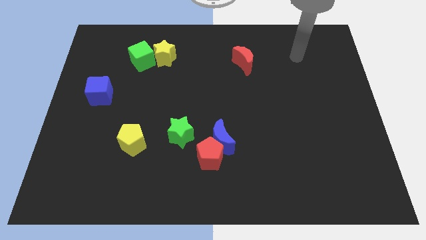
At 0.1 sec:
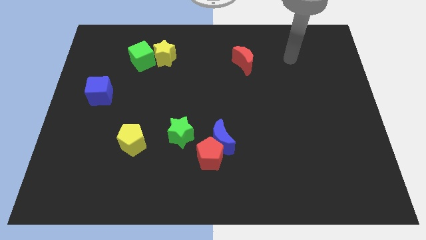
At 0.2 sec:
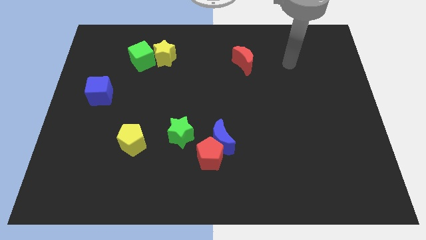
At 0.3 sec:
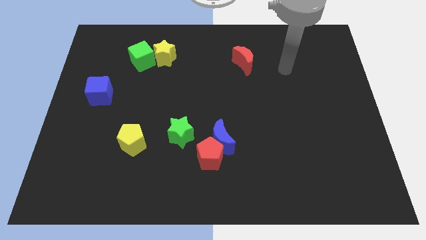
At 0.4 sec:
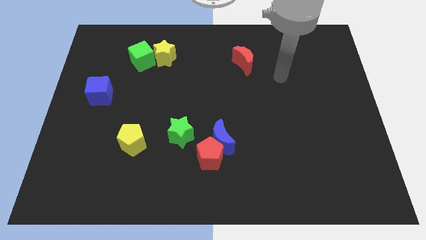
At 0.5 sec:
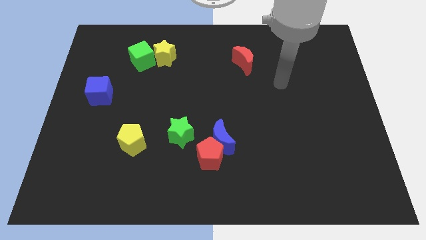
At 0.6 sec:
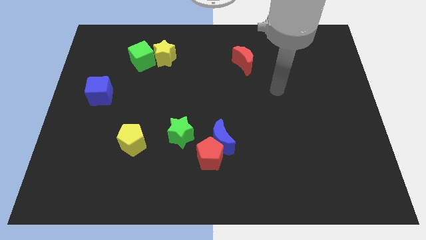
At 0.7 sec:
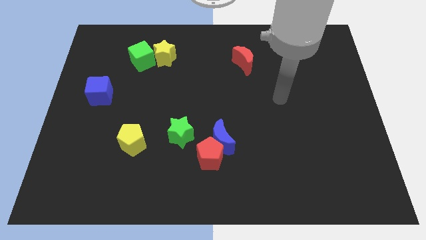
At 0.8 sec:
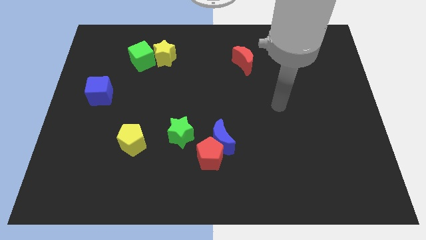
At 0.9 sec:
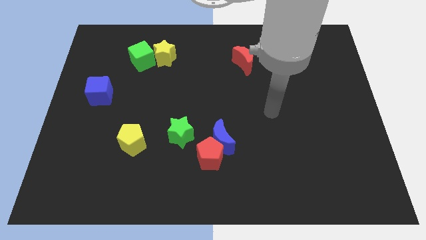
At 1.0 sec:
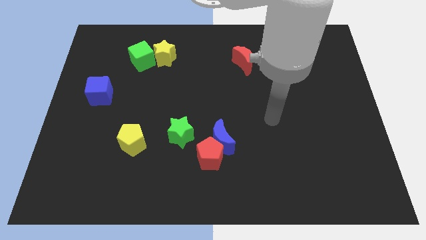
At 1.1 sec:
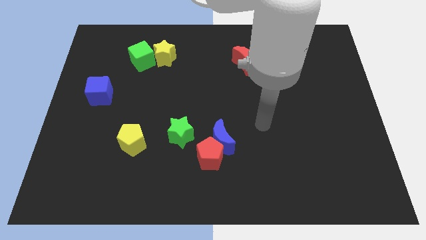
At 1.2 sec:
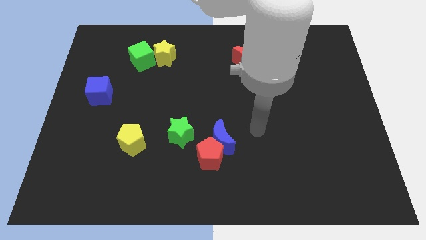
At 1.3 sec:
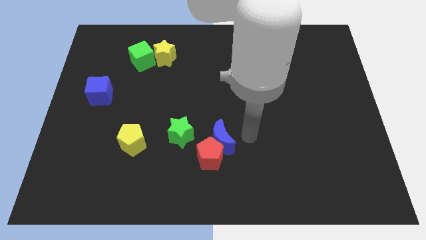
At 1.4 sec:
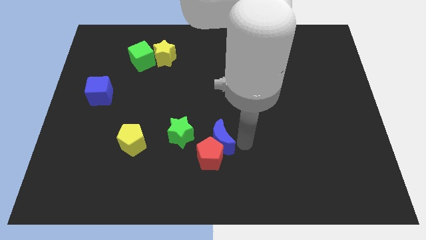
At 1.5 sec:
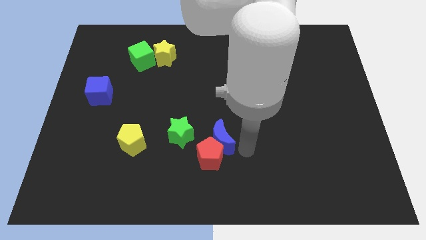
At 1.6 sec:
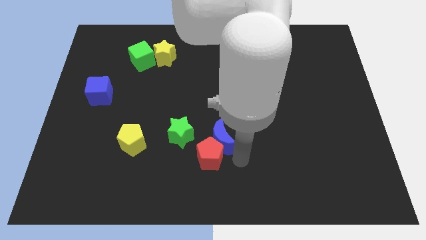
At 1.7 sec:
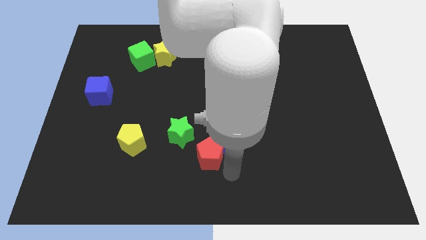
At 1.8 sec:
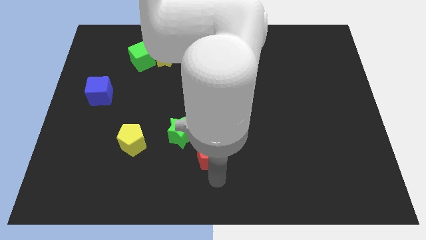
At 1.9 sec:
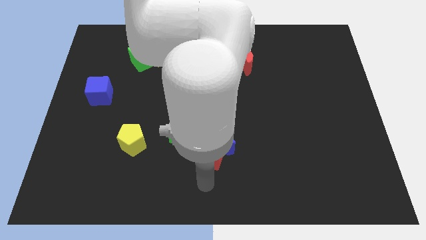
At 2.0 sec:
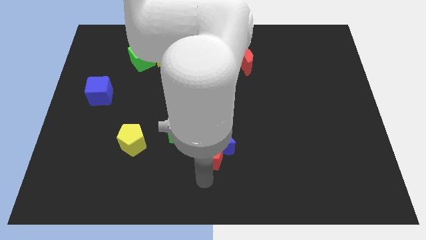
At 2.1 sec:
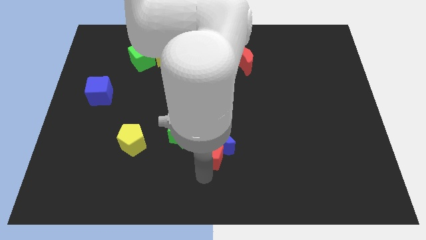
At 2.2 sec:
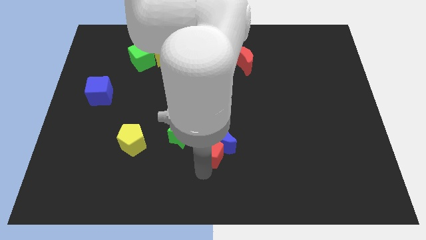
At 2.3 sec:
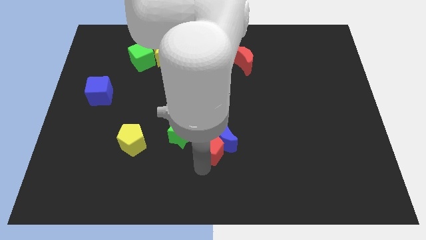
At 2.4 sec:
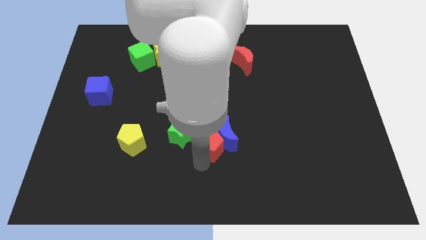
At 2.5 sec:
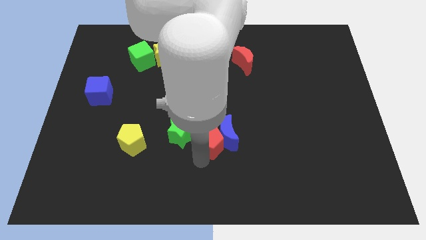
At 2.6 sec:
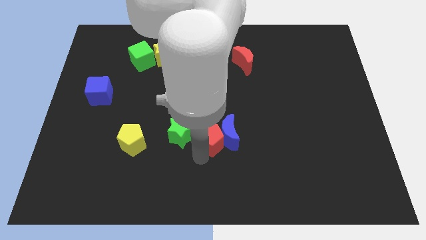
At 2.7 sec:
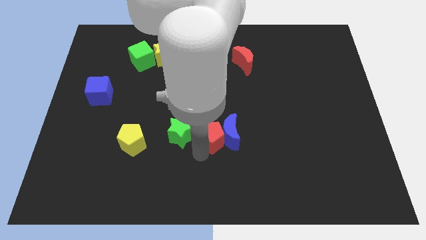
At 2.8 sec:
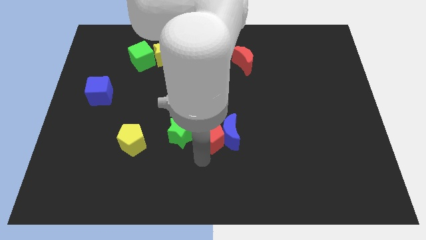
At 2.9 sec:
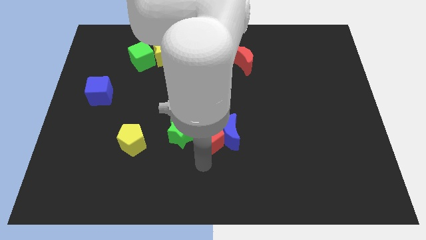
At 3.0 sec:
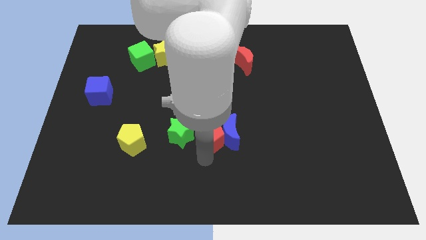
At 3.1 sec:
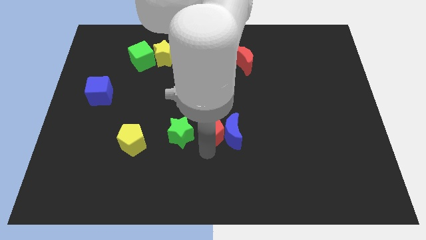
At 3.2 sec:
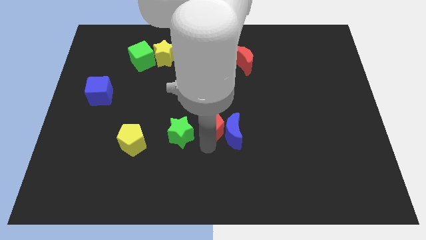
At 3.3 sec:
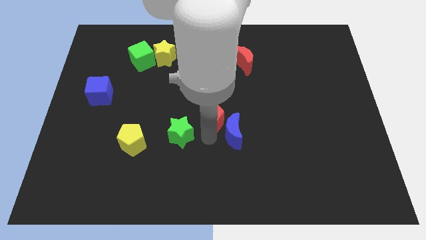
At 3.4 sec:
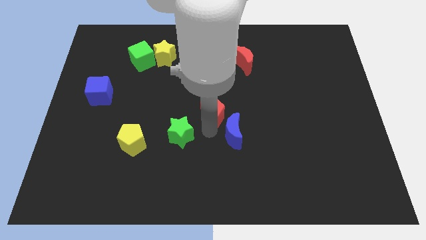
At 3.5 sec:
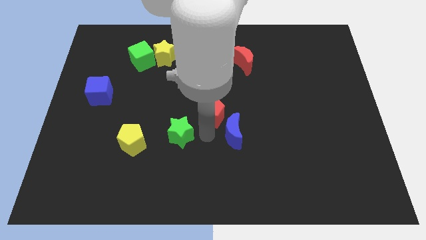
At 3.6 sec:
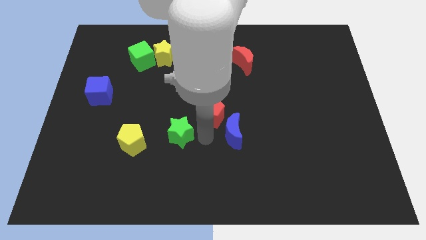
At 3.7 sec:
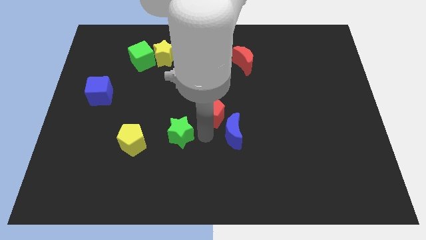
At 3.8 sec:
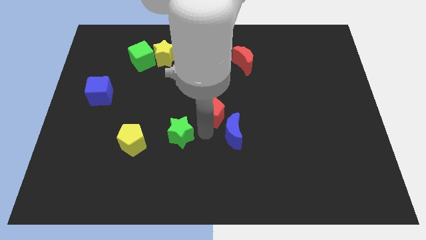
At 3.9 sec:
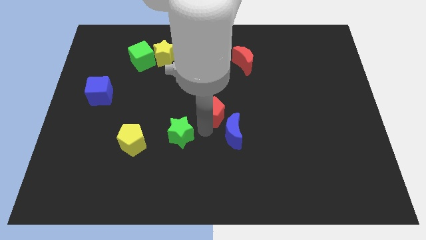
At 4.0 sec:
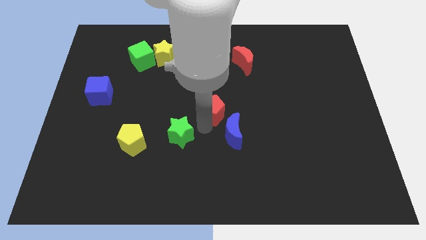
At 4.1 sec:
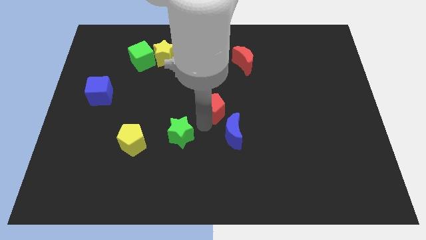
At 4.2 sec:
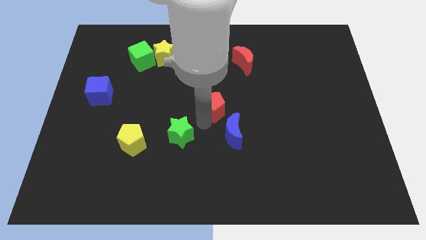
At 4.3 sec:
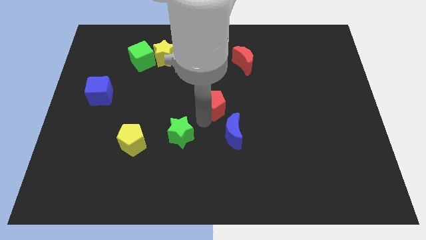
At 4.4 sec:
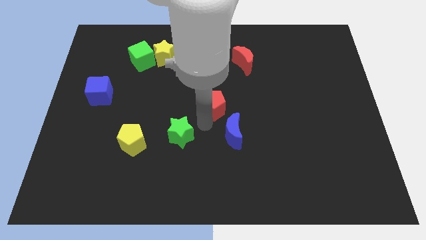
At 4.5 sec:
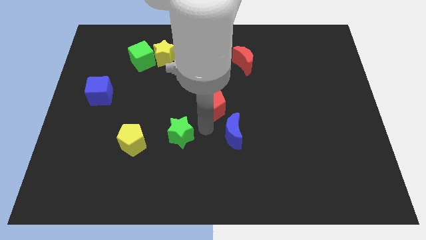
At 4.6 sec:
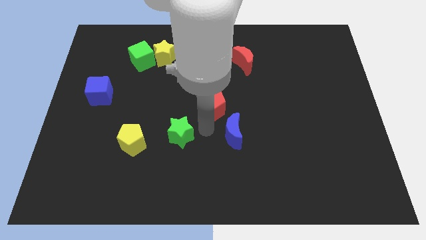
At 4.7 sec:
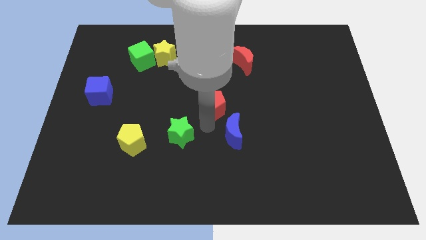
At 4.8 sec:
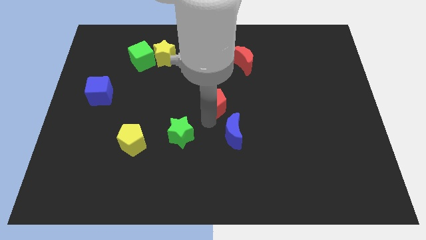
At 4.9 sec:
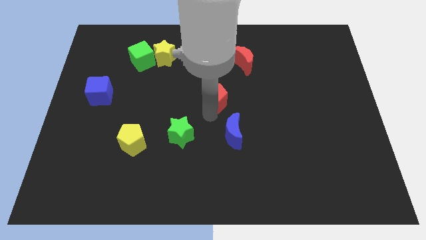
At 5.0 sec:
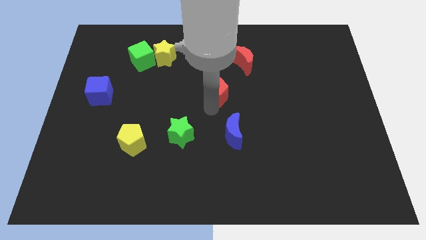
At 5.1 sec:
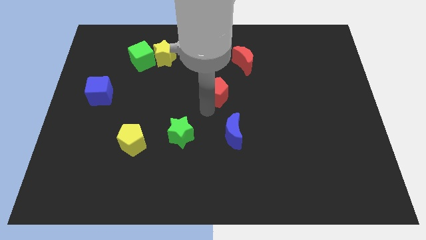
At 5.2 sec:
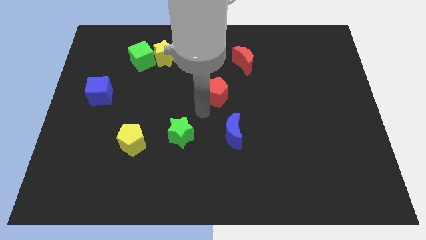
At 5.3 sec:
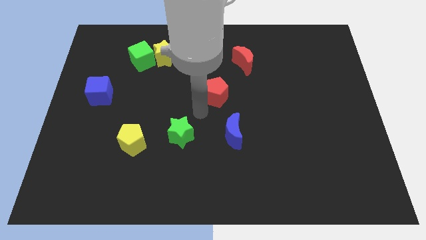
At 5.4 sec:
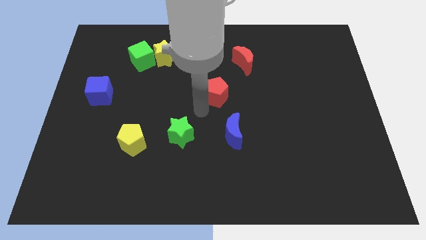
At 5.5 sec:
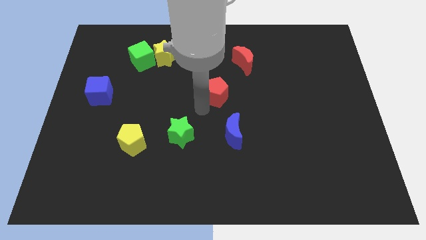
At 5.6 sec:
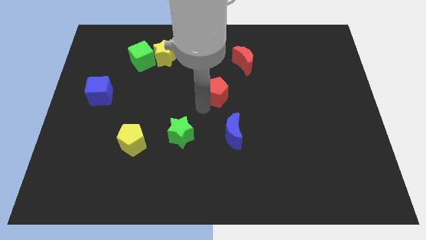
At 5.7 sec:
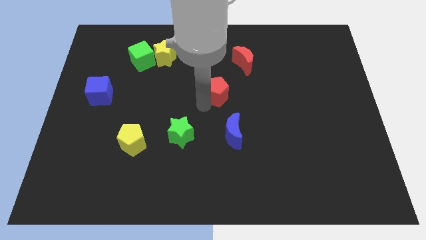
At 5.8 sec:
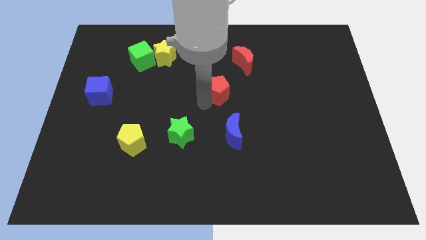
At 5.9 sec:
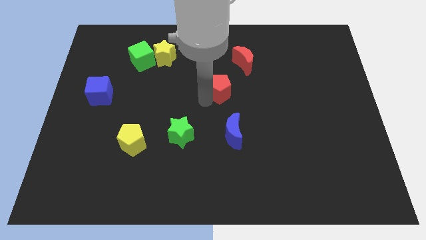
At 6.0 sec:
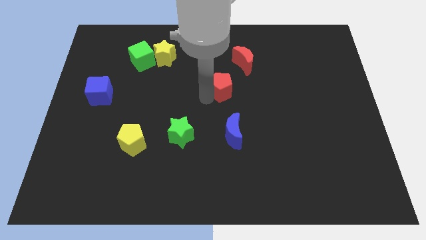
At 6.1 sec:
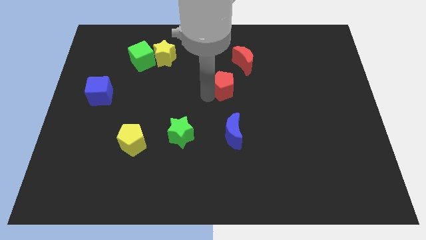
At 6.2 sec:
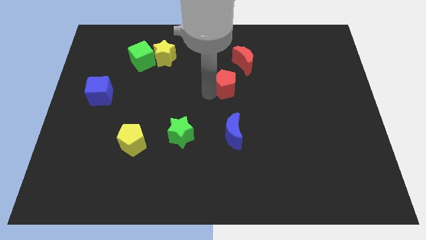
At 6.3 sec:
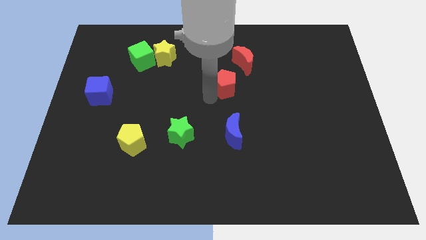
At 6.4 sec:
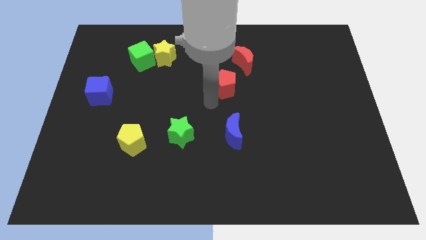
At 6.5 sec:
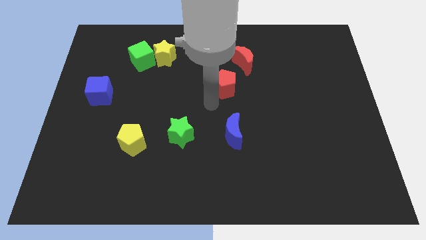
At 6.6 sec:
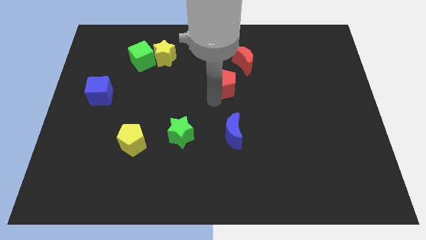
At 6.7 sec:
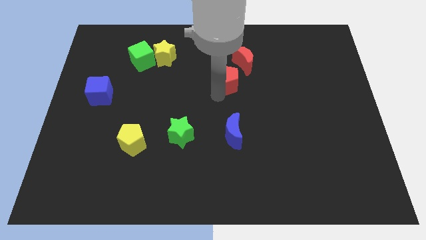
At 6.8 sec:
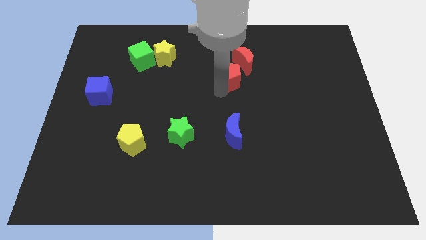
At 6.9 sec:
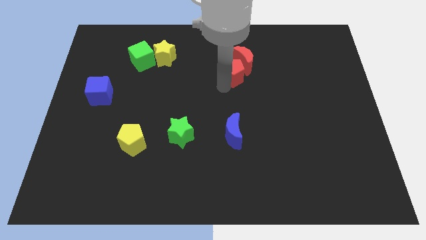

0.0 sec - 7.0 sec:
push the red pentagon to the red moon

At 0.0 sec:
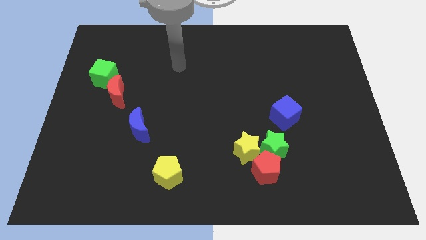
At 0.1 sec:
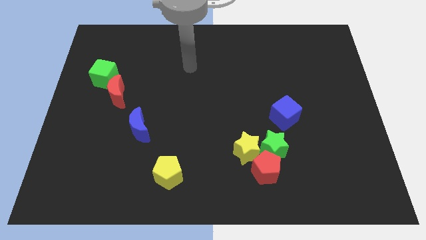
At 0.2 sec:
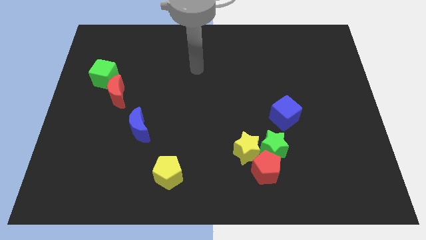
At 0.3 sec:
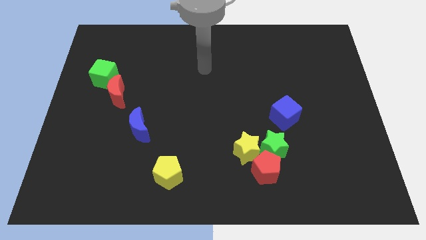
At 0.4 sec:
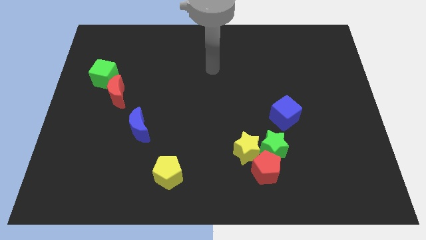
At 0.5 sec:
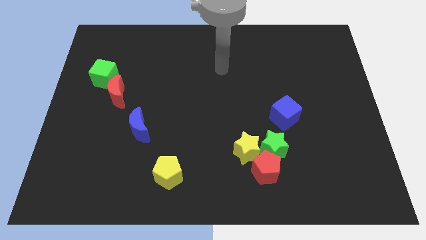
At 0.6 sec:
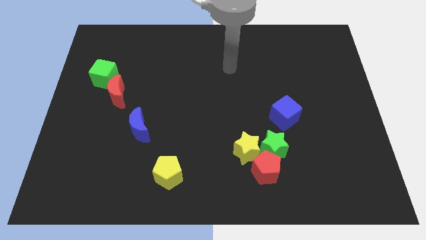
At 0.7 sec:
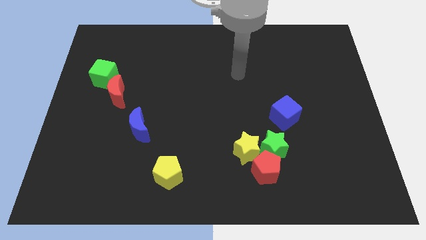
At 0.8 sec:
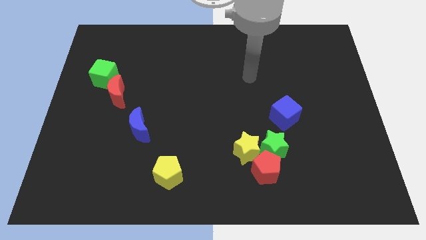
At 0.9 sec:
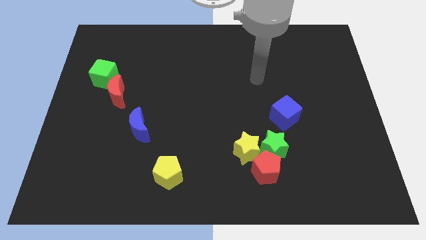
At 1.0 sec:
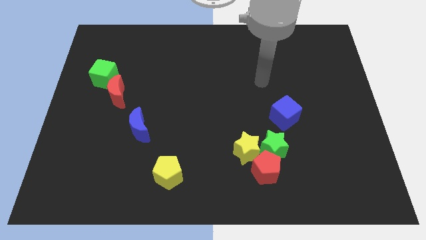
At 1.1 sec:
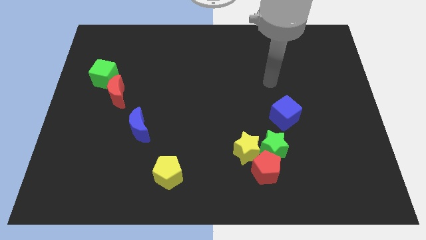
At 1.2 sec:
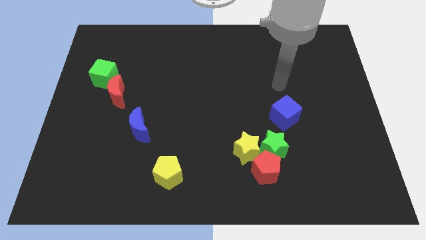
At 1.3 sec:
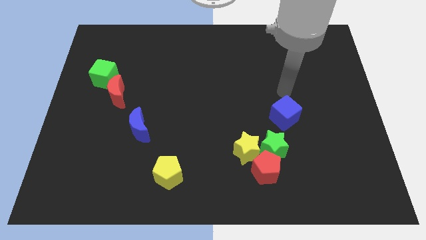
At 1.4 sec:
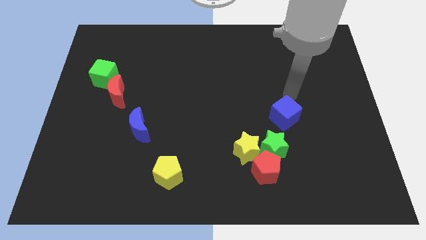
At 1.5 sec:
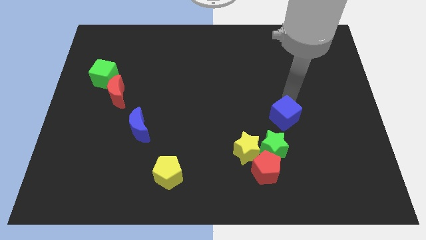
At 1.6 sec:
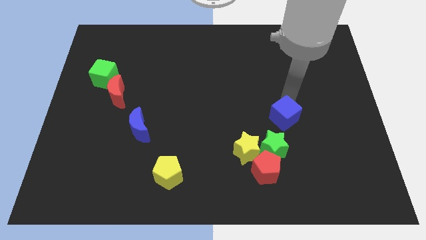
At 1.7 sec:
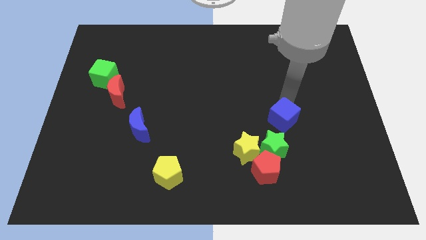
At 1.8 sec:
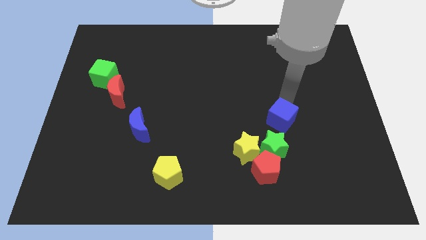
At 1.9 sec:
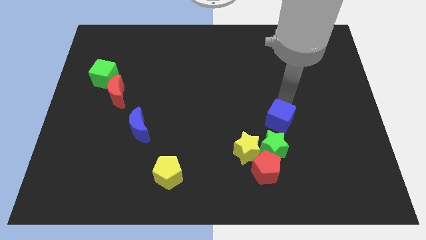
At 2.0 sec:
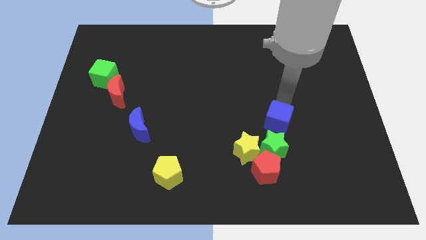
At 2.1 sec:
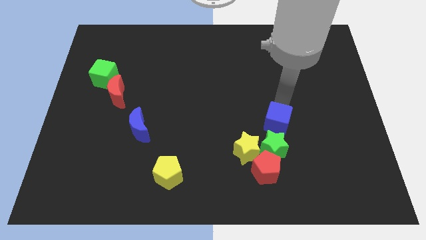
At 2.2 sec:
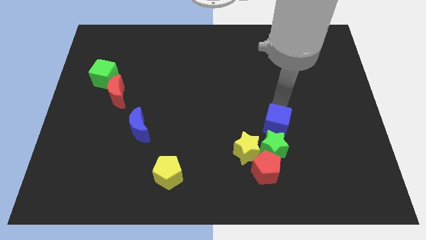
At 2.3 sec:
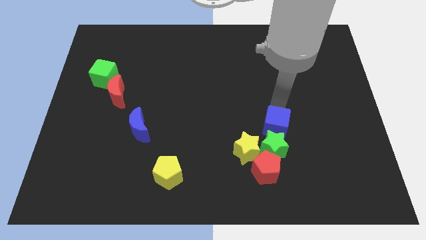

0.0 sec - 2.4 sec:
put the blue cube close to the green star
